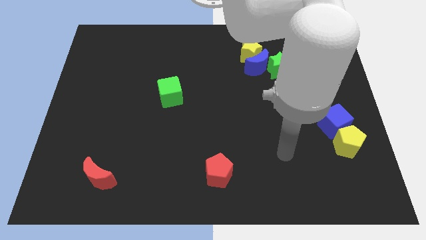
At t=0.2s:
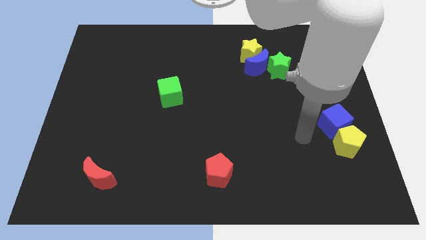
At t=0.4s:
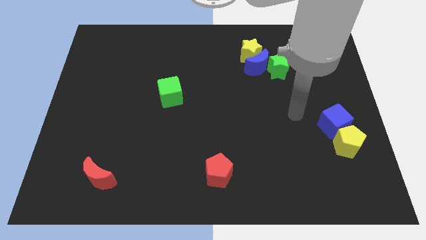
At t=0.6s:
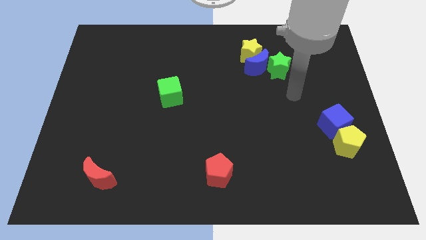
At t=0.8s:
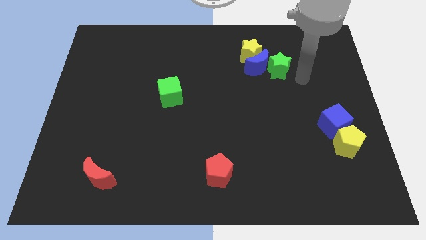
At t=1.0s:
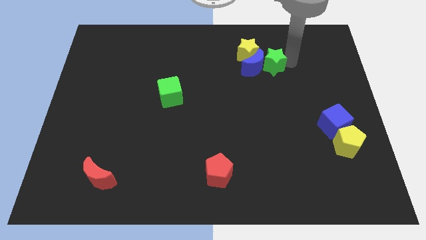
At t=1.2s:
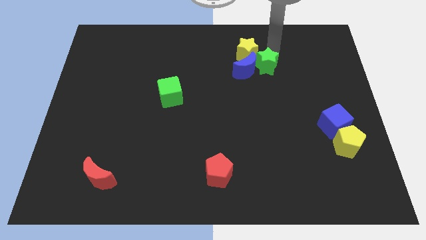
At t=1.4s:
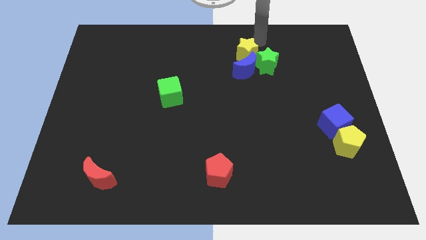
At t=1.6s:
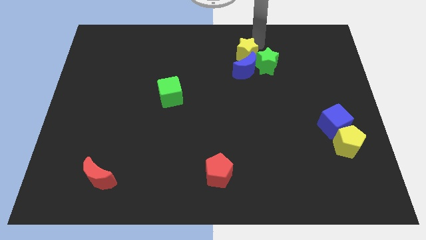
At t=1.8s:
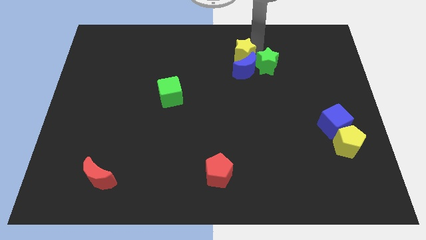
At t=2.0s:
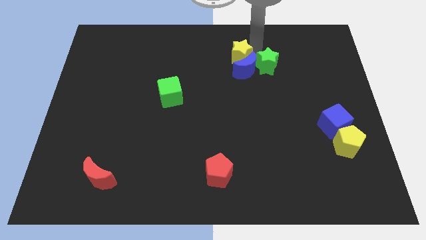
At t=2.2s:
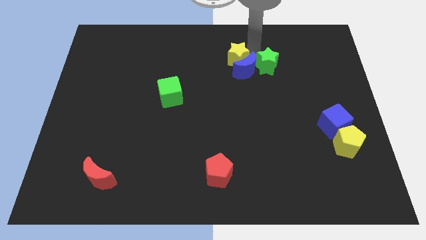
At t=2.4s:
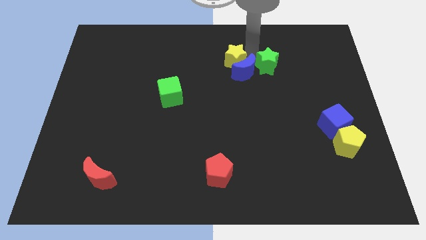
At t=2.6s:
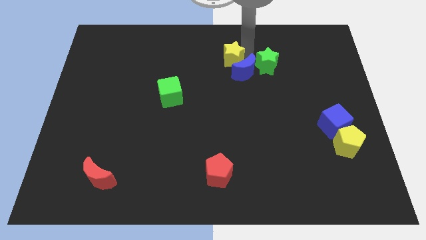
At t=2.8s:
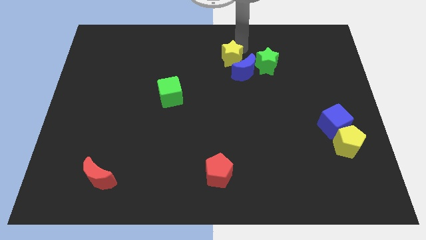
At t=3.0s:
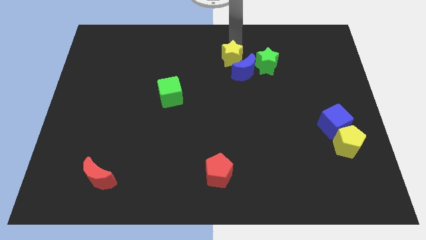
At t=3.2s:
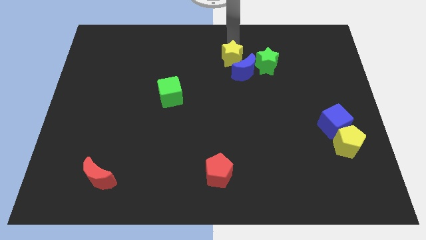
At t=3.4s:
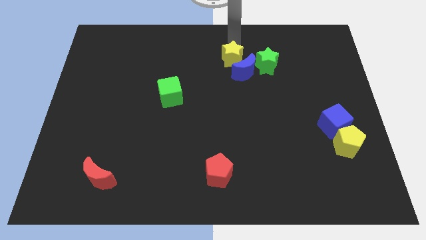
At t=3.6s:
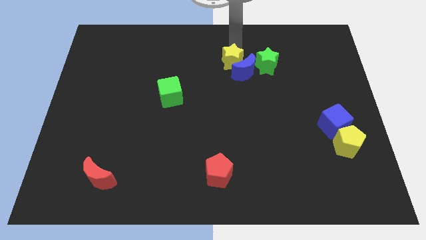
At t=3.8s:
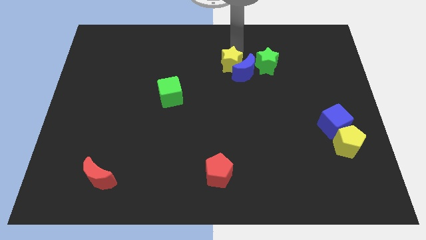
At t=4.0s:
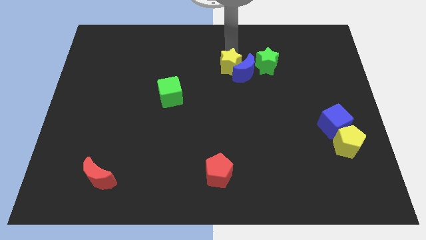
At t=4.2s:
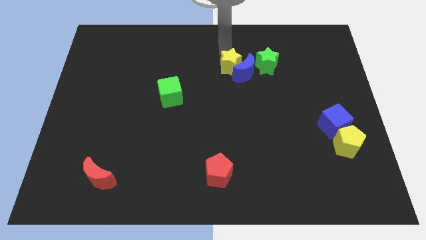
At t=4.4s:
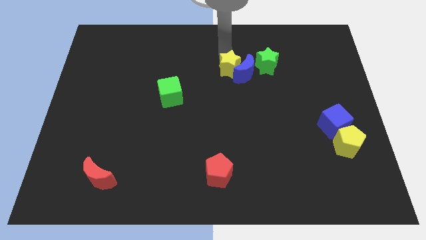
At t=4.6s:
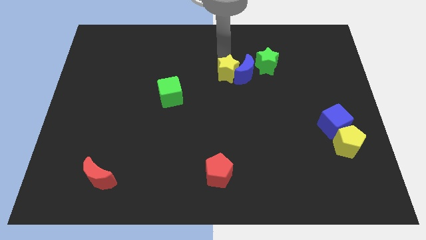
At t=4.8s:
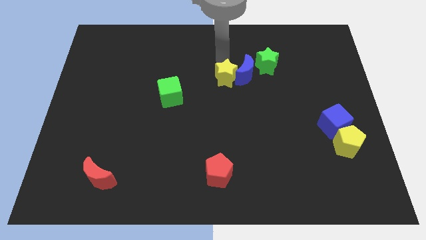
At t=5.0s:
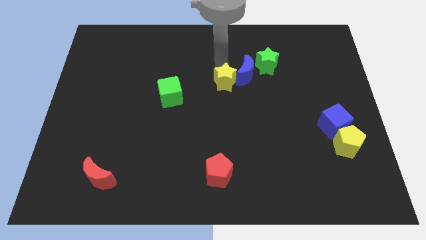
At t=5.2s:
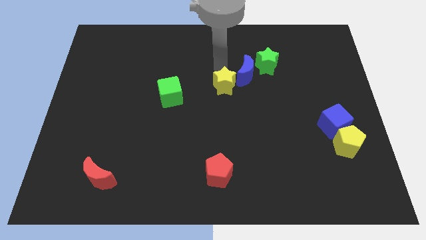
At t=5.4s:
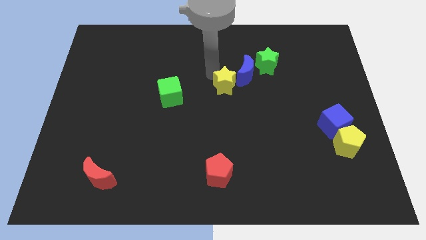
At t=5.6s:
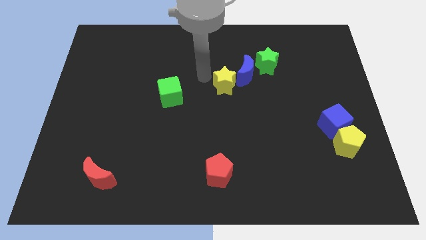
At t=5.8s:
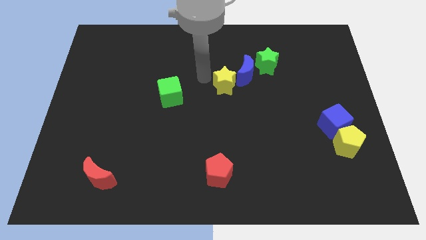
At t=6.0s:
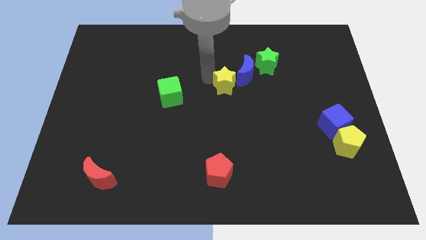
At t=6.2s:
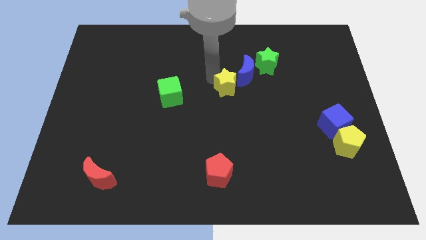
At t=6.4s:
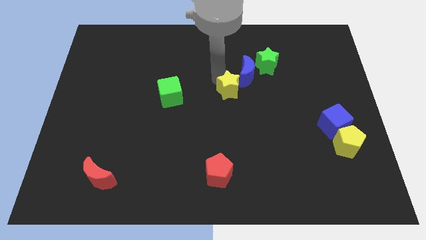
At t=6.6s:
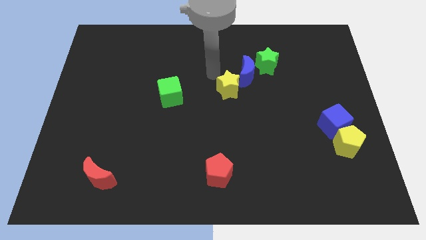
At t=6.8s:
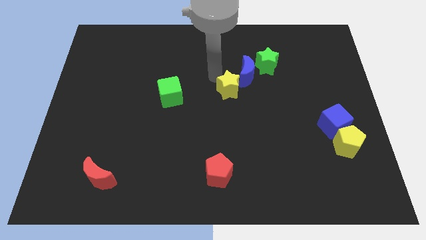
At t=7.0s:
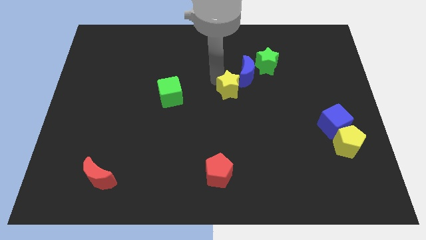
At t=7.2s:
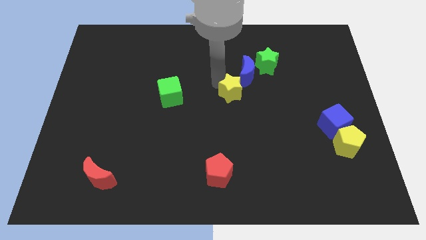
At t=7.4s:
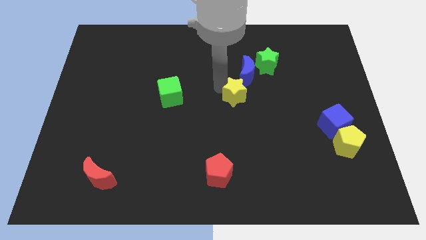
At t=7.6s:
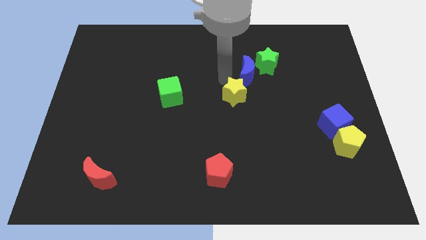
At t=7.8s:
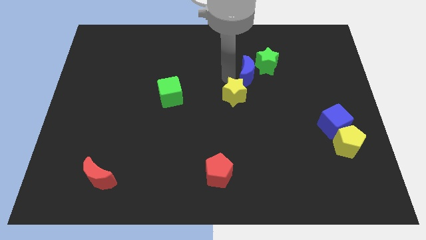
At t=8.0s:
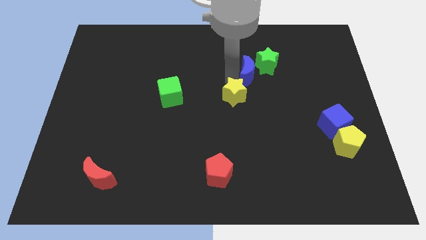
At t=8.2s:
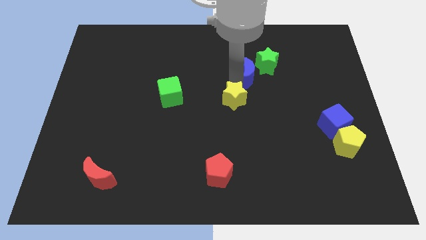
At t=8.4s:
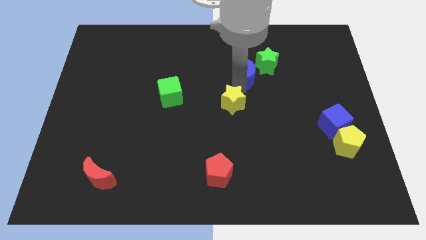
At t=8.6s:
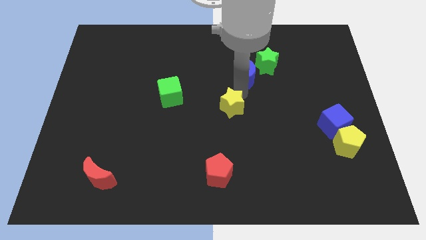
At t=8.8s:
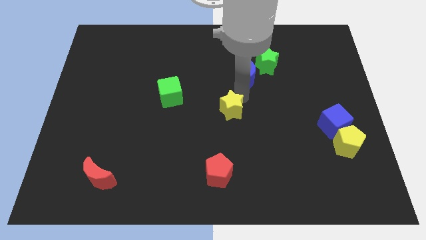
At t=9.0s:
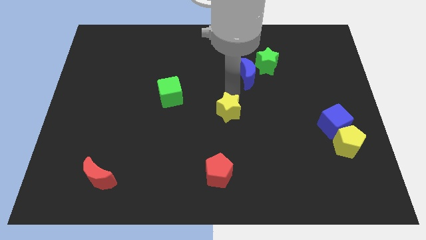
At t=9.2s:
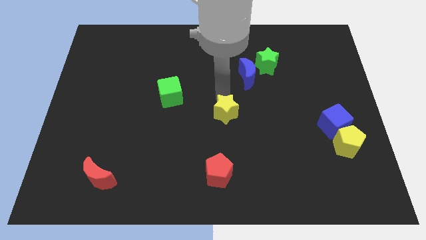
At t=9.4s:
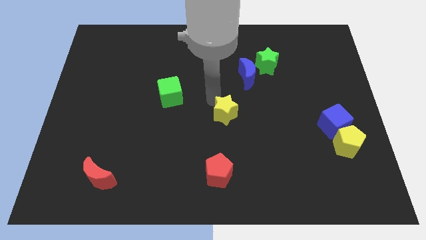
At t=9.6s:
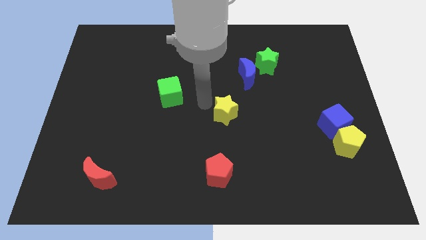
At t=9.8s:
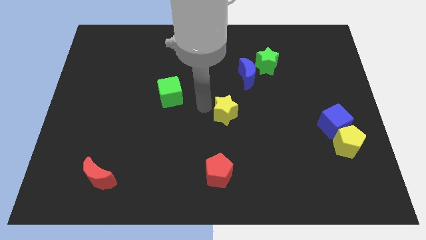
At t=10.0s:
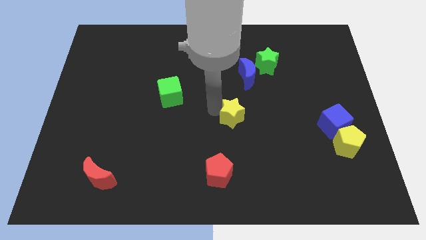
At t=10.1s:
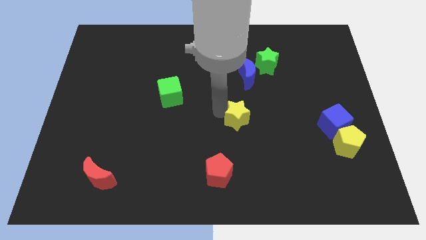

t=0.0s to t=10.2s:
push the yellow star downwards

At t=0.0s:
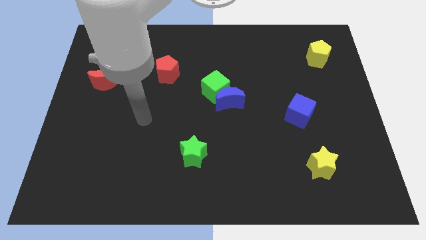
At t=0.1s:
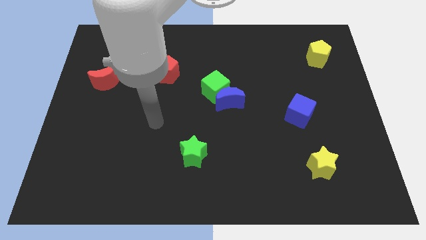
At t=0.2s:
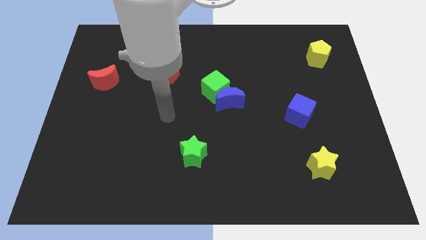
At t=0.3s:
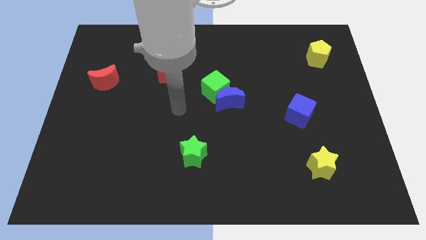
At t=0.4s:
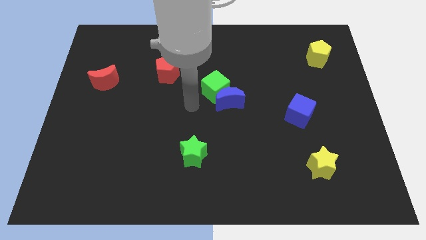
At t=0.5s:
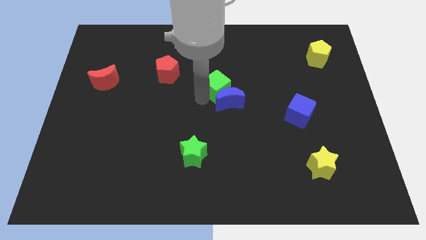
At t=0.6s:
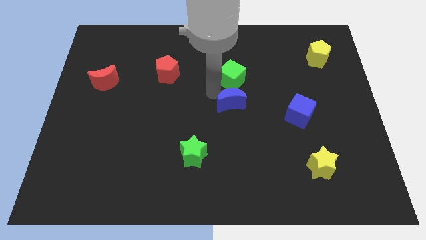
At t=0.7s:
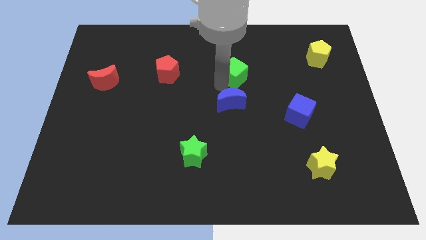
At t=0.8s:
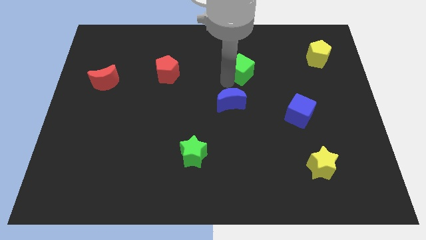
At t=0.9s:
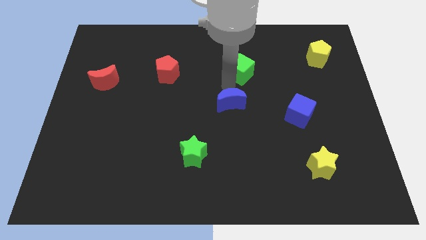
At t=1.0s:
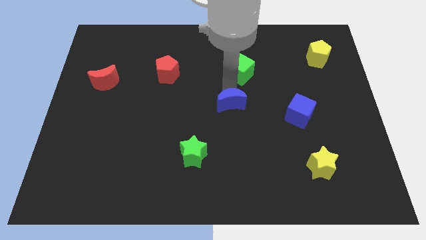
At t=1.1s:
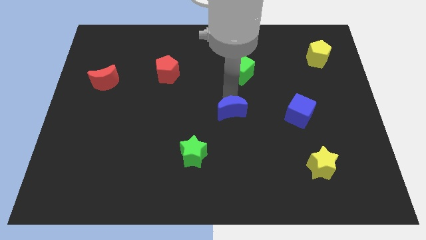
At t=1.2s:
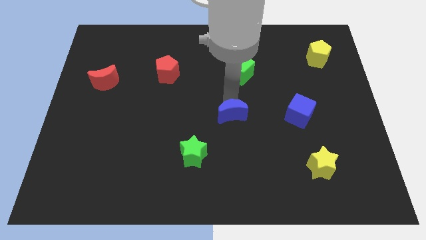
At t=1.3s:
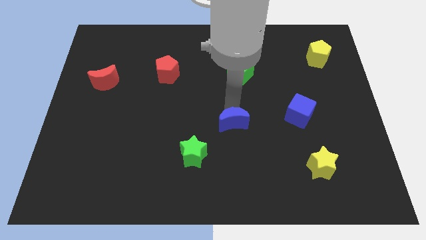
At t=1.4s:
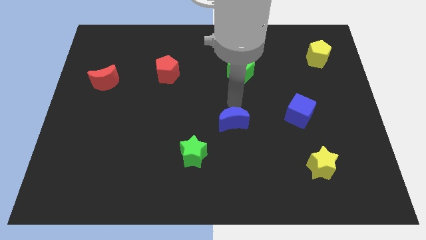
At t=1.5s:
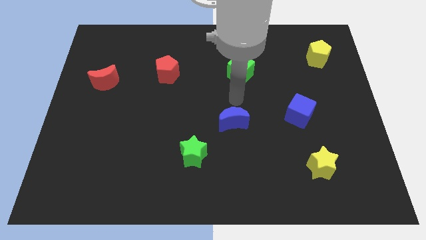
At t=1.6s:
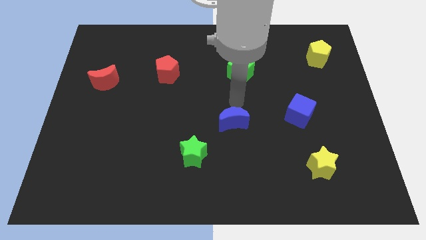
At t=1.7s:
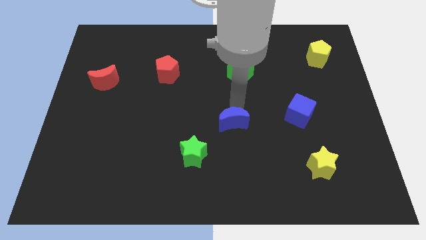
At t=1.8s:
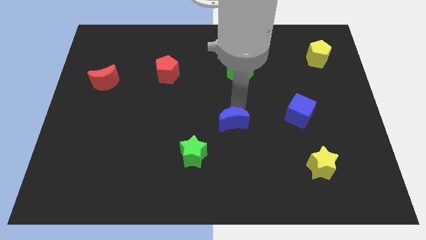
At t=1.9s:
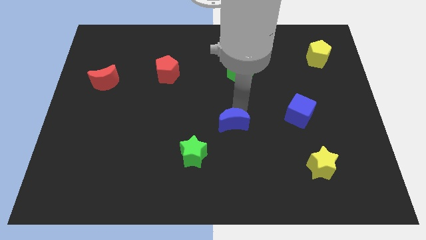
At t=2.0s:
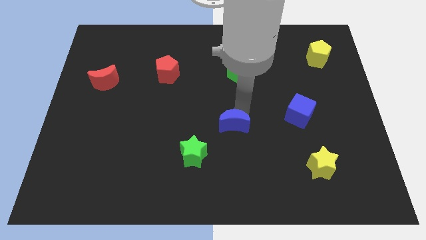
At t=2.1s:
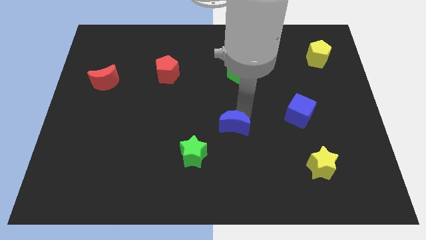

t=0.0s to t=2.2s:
push the blue moon downwards a little bit

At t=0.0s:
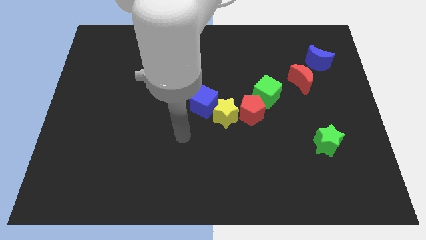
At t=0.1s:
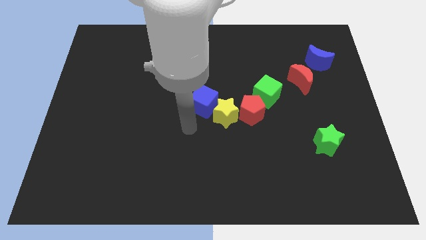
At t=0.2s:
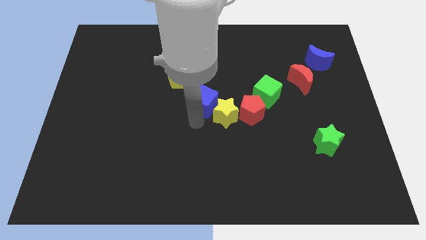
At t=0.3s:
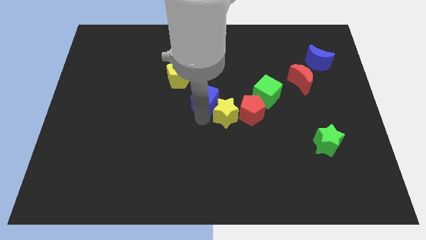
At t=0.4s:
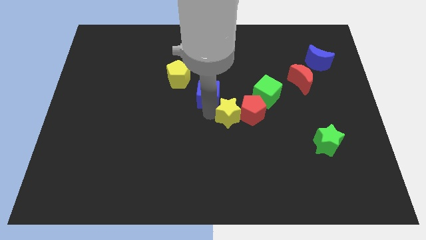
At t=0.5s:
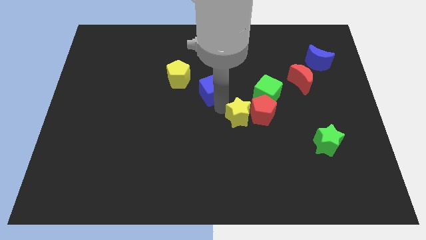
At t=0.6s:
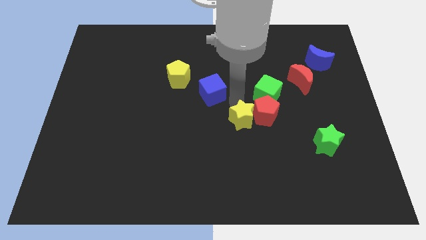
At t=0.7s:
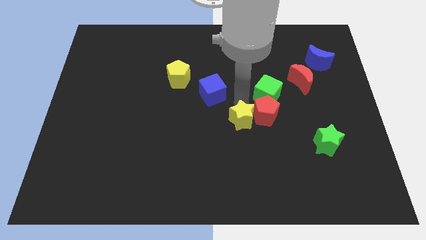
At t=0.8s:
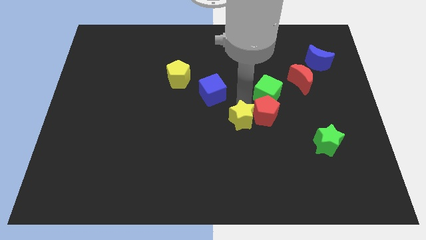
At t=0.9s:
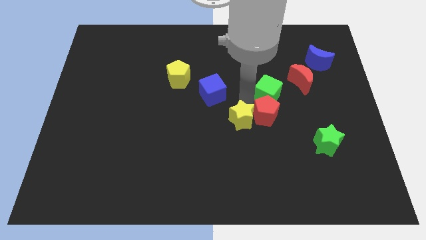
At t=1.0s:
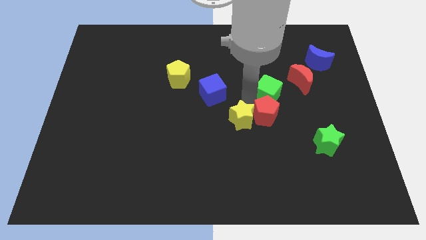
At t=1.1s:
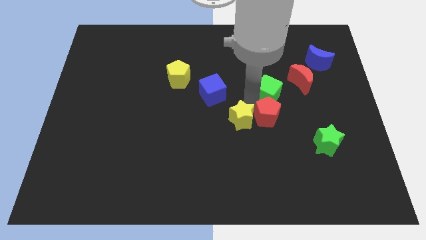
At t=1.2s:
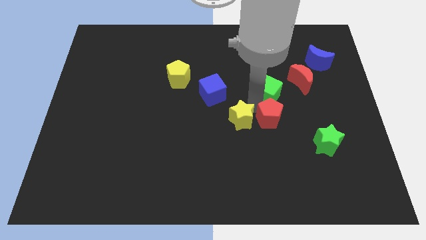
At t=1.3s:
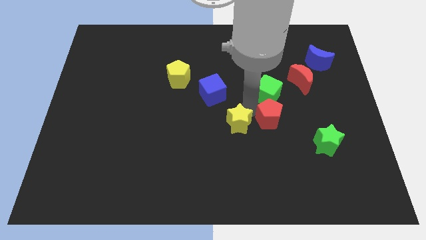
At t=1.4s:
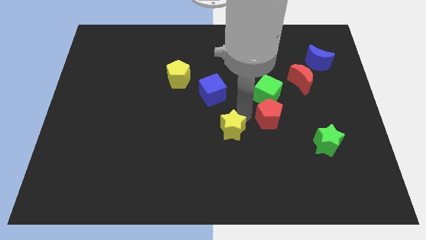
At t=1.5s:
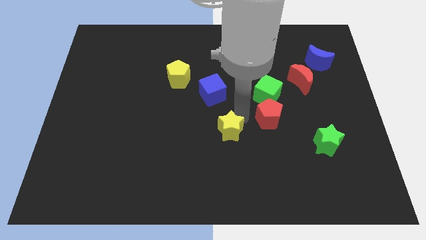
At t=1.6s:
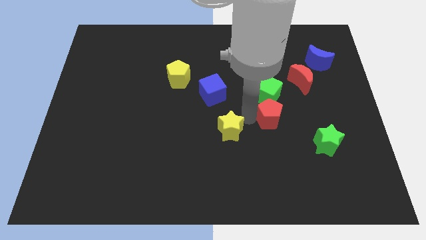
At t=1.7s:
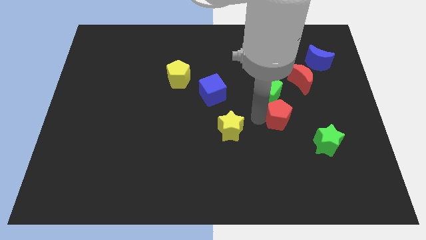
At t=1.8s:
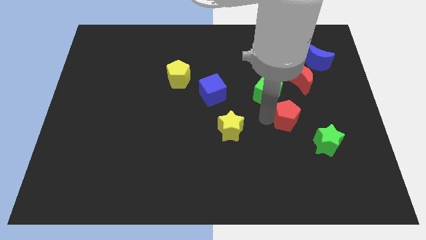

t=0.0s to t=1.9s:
push the red pentagon right somewhat
